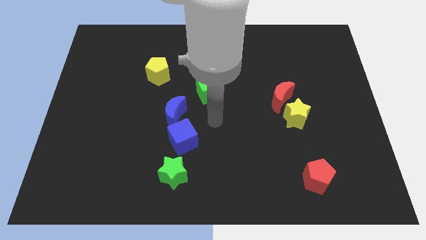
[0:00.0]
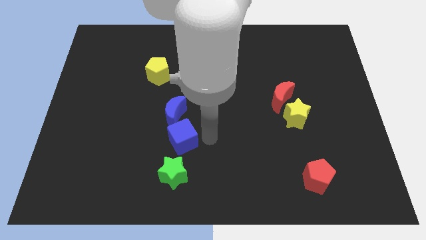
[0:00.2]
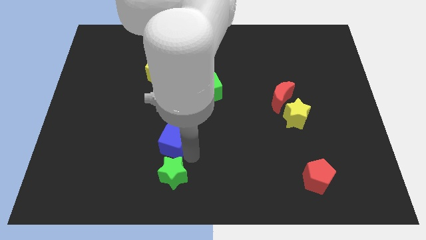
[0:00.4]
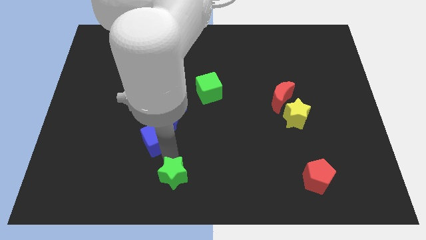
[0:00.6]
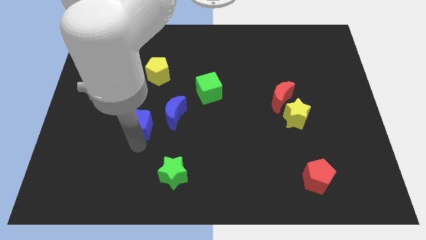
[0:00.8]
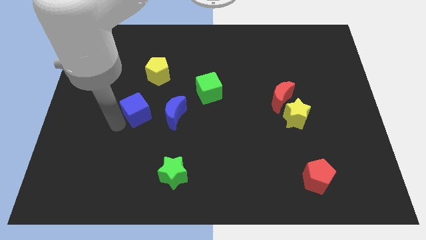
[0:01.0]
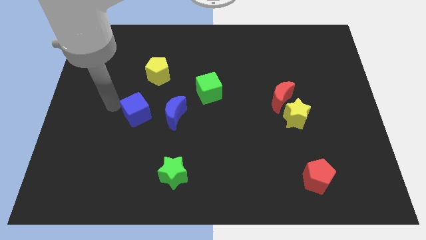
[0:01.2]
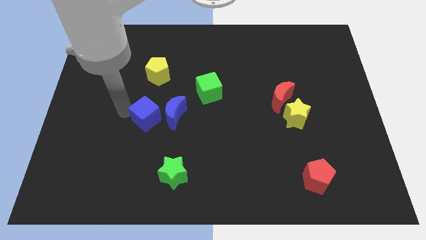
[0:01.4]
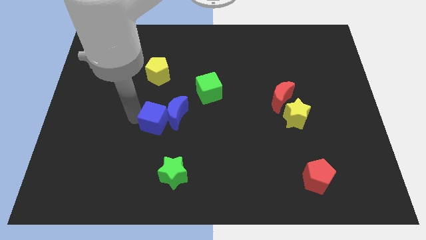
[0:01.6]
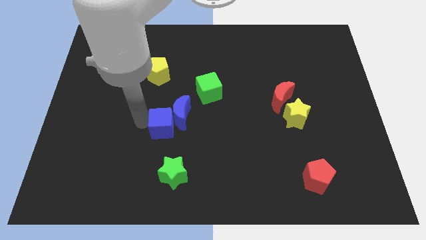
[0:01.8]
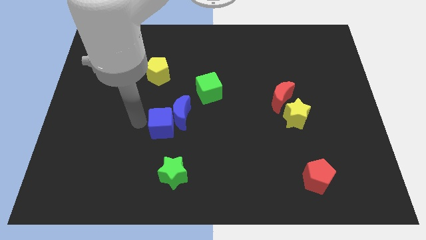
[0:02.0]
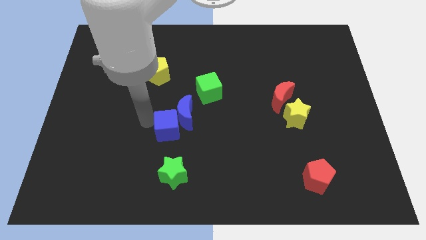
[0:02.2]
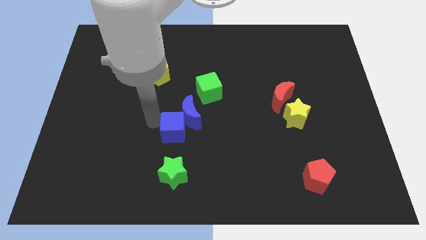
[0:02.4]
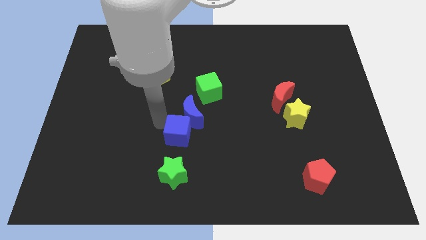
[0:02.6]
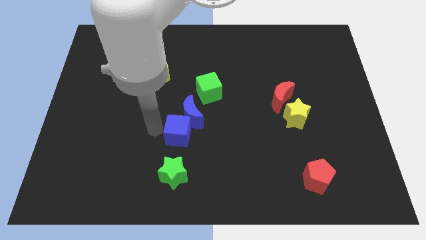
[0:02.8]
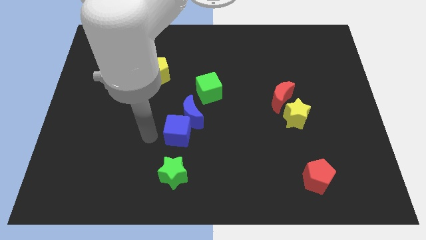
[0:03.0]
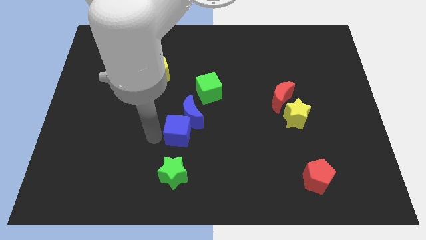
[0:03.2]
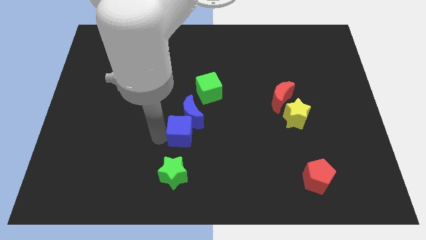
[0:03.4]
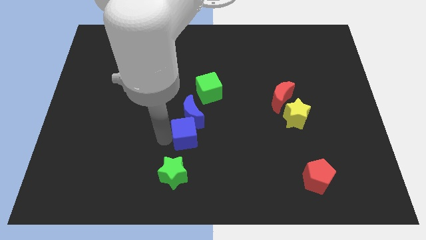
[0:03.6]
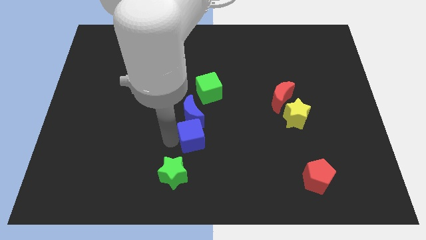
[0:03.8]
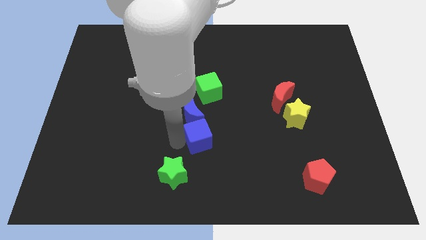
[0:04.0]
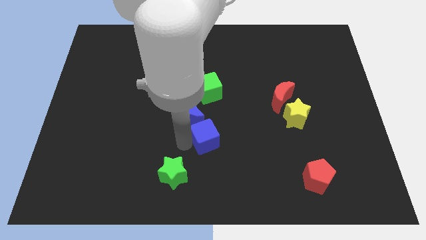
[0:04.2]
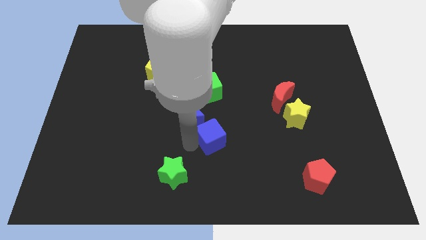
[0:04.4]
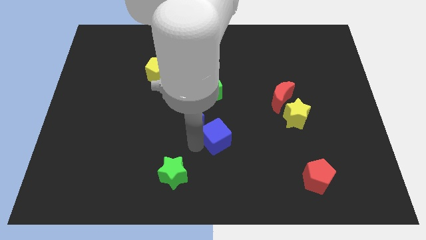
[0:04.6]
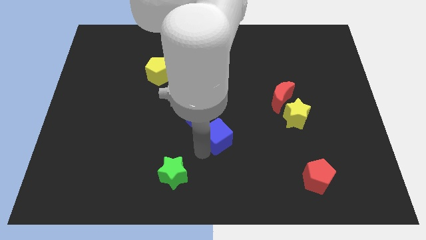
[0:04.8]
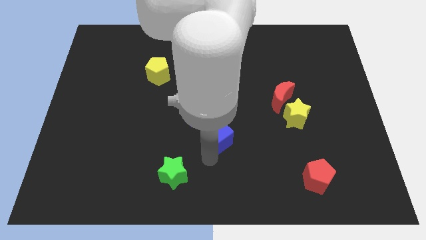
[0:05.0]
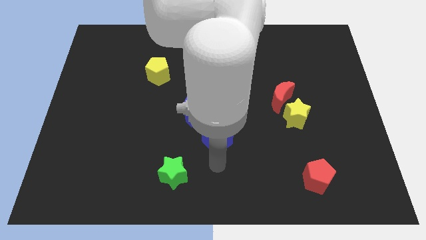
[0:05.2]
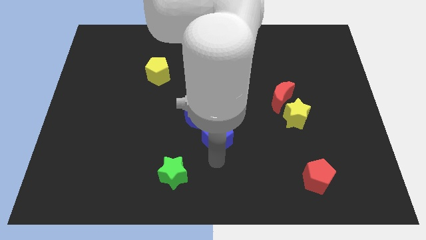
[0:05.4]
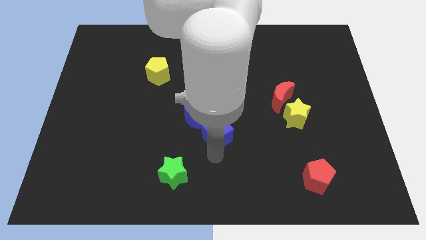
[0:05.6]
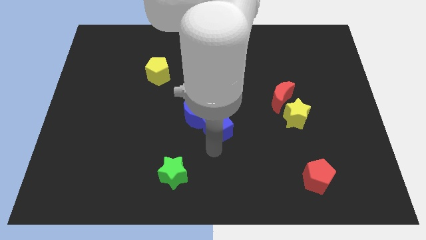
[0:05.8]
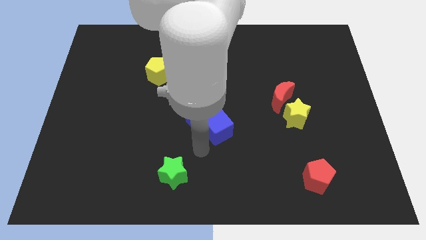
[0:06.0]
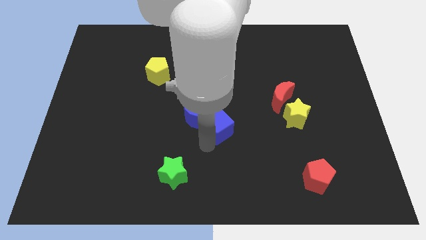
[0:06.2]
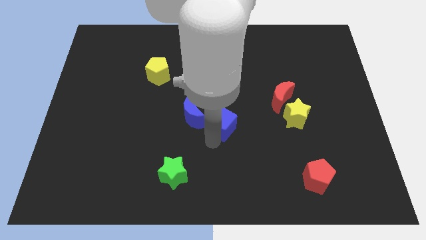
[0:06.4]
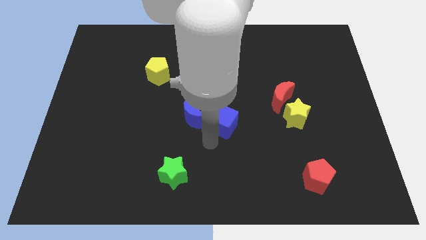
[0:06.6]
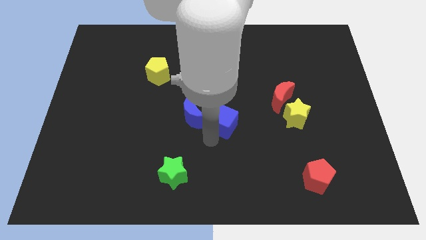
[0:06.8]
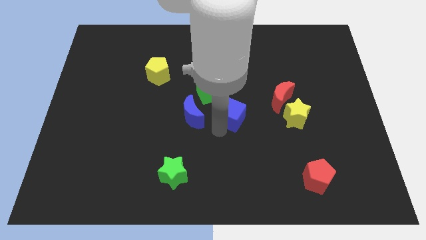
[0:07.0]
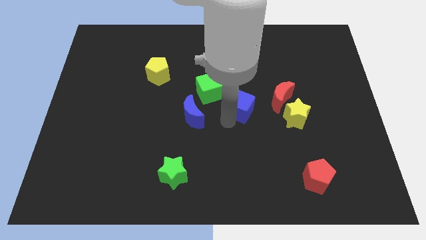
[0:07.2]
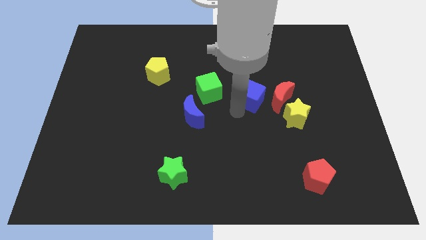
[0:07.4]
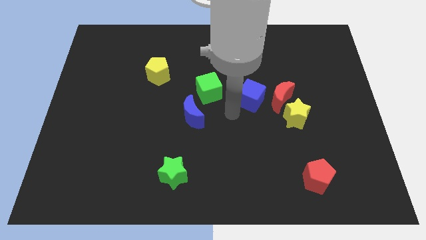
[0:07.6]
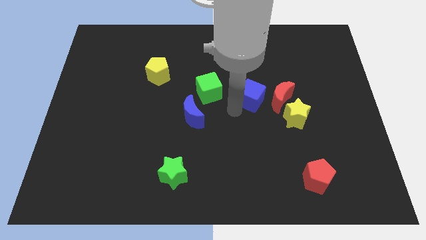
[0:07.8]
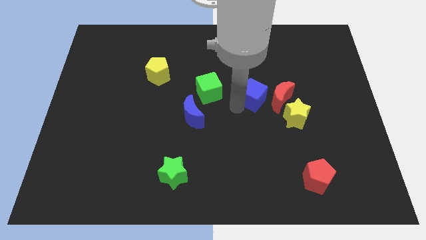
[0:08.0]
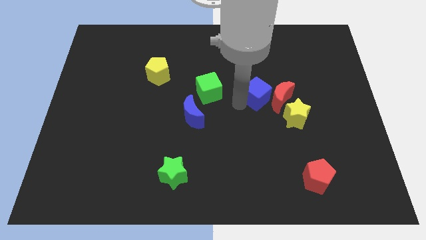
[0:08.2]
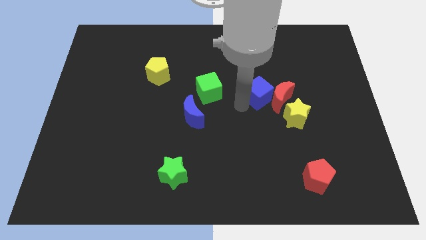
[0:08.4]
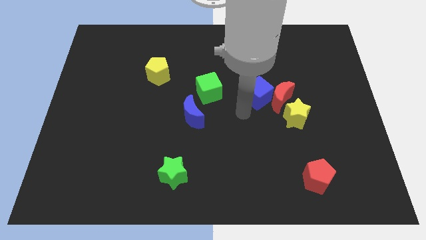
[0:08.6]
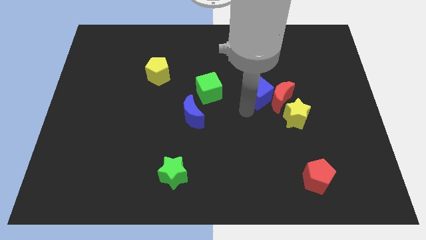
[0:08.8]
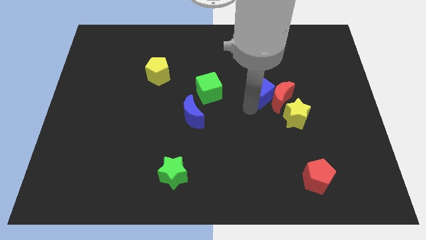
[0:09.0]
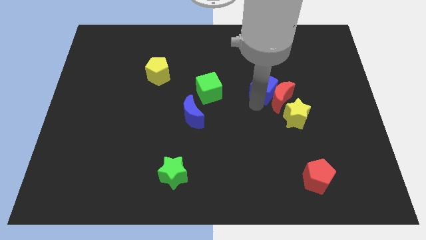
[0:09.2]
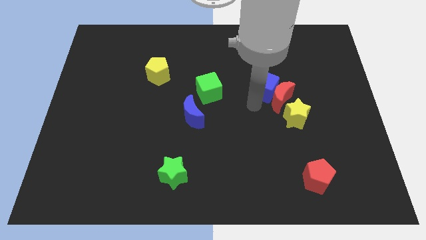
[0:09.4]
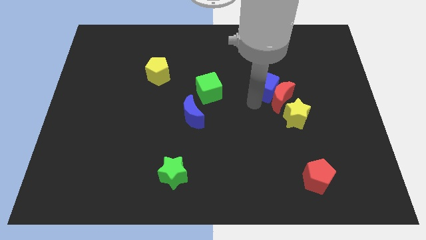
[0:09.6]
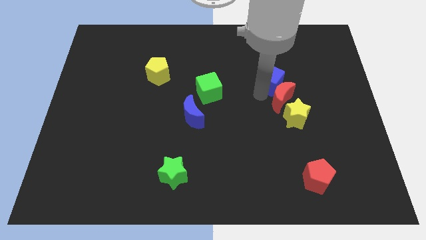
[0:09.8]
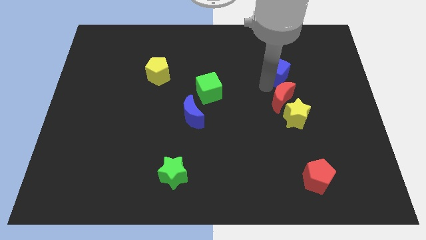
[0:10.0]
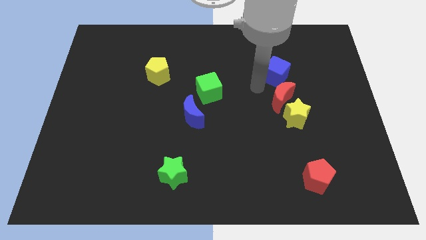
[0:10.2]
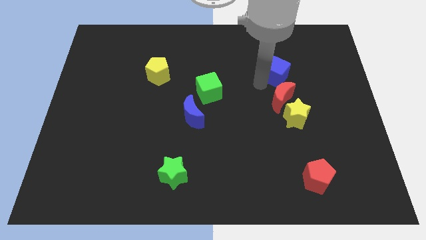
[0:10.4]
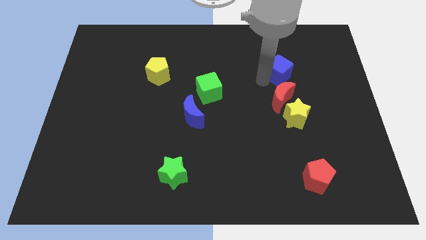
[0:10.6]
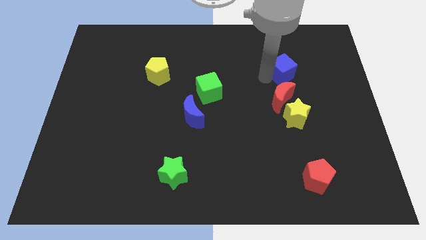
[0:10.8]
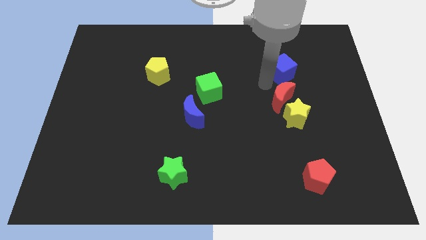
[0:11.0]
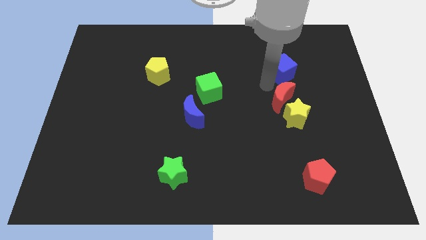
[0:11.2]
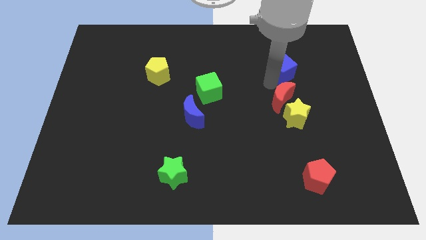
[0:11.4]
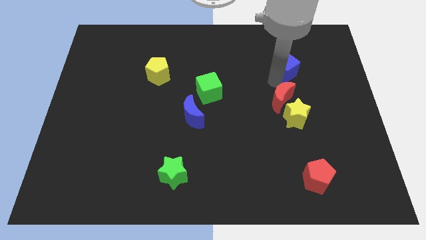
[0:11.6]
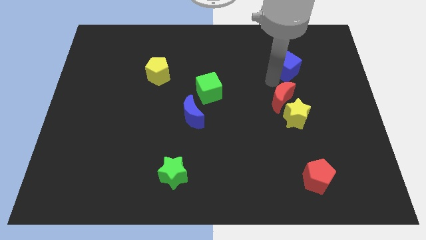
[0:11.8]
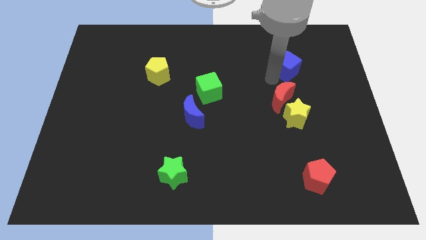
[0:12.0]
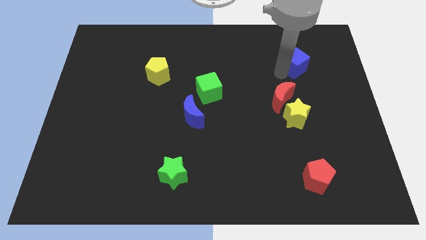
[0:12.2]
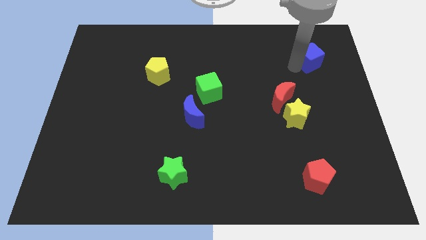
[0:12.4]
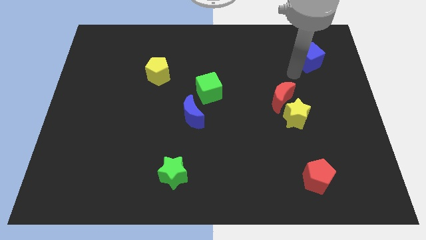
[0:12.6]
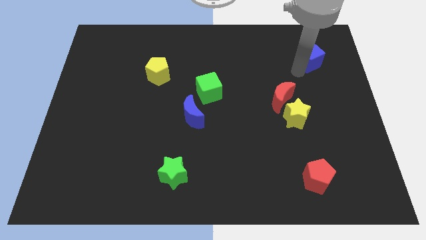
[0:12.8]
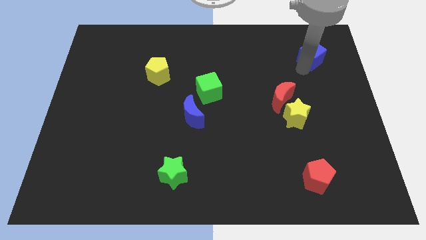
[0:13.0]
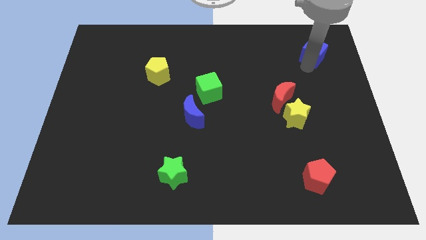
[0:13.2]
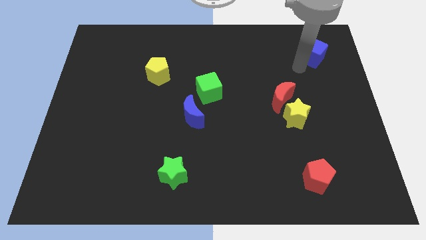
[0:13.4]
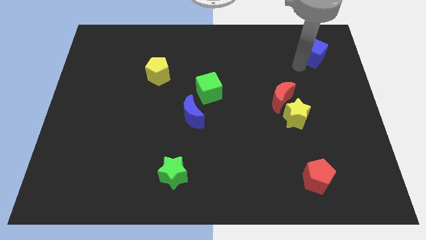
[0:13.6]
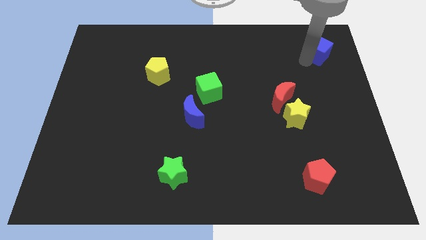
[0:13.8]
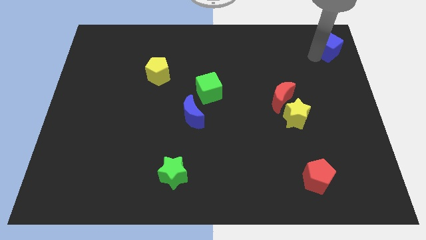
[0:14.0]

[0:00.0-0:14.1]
slide the blue cube to the upper right corner

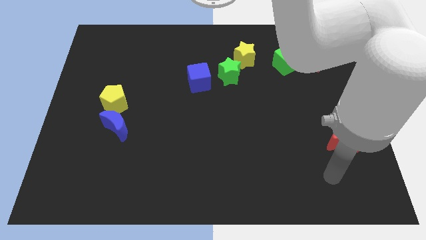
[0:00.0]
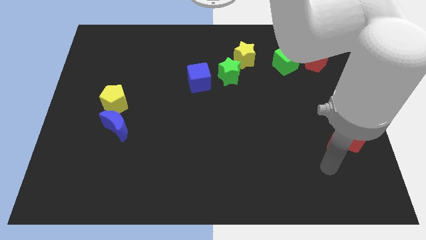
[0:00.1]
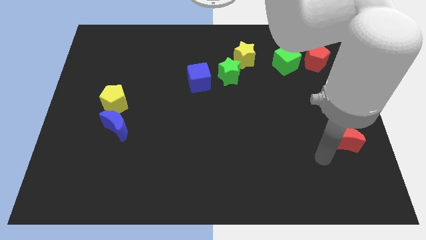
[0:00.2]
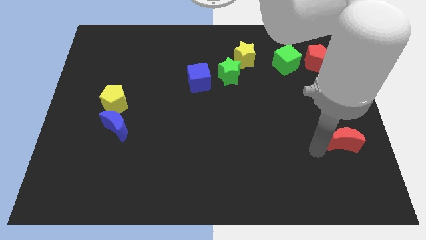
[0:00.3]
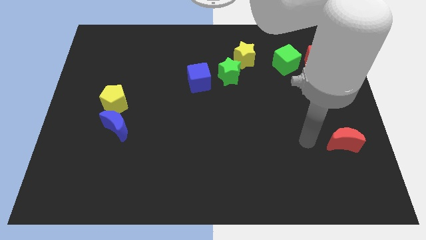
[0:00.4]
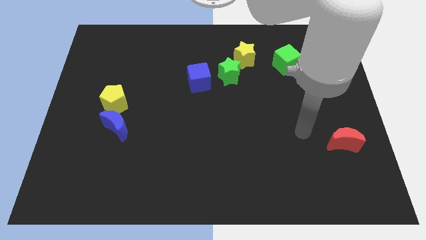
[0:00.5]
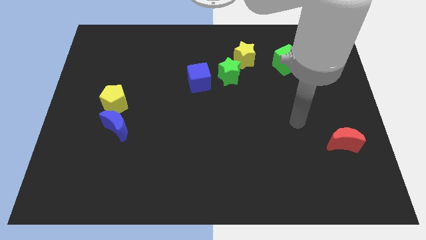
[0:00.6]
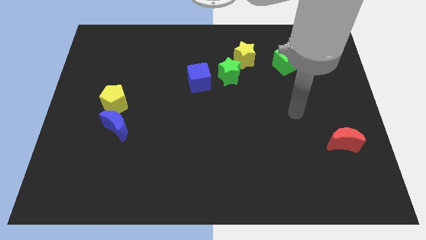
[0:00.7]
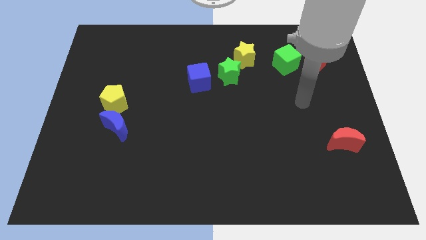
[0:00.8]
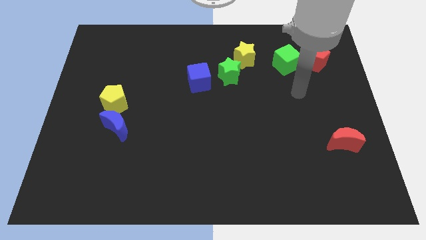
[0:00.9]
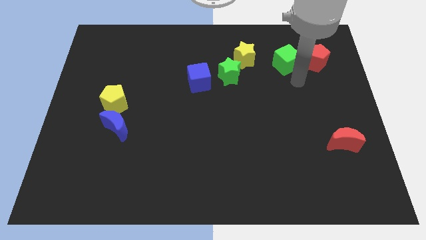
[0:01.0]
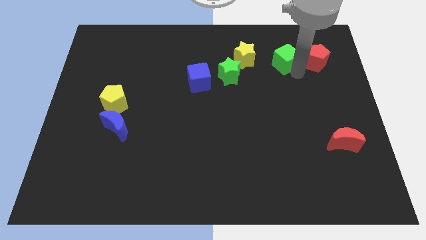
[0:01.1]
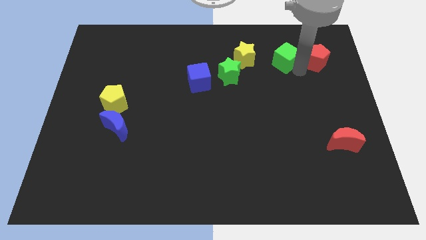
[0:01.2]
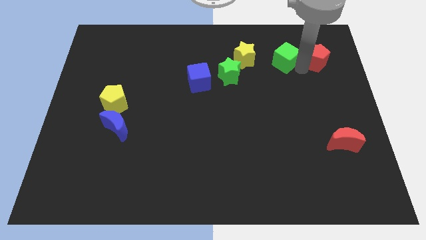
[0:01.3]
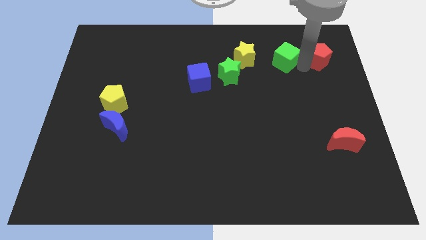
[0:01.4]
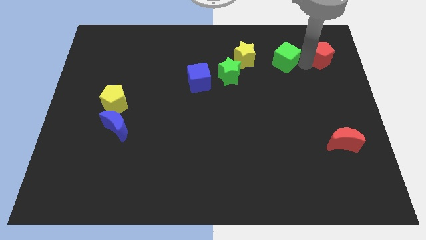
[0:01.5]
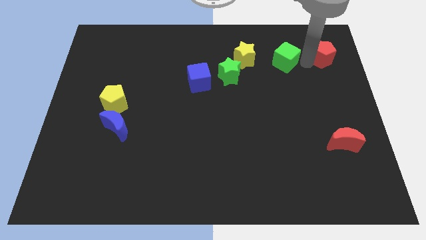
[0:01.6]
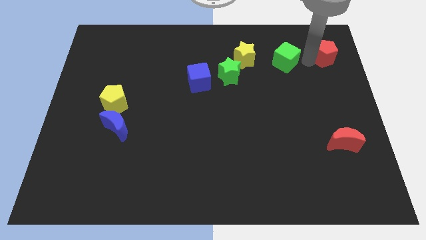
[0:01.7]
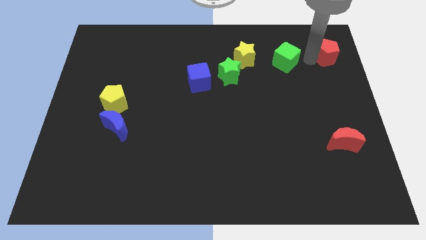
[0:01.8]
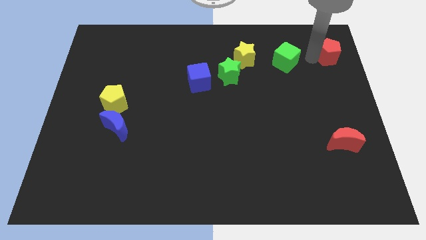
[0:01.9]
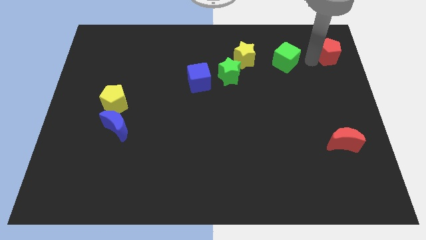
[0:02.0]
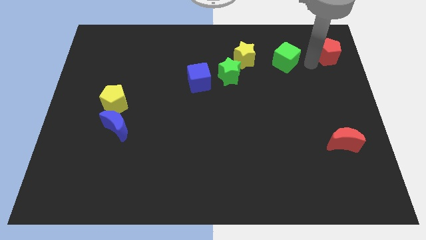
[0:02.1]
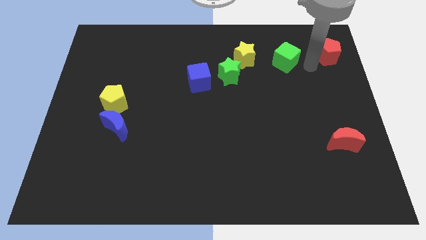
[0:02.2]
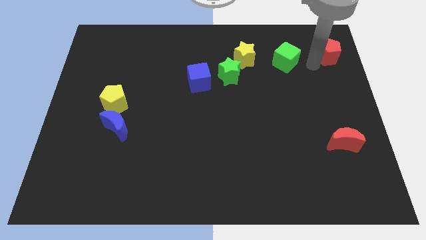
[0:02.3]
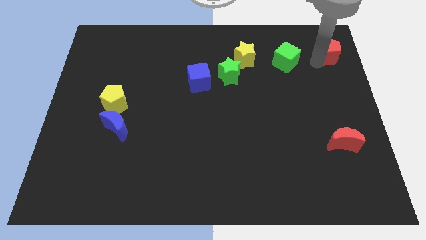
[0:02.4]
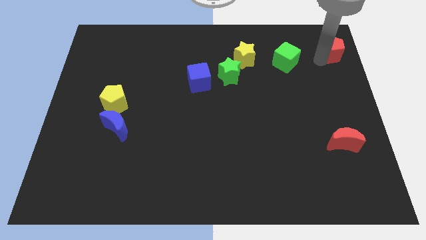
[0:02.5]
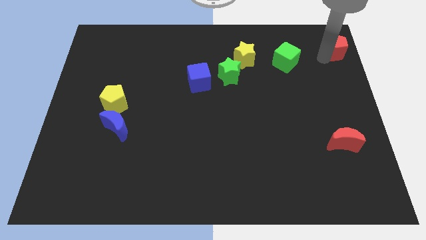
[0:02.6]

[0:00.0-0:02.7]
move the red pentagon to the upper right corner
